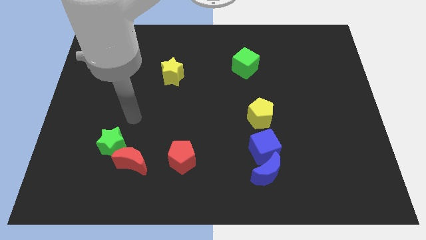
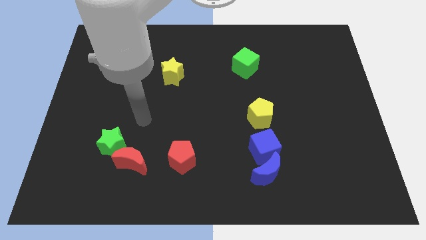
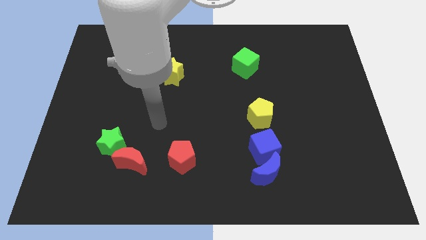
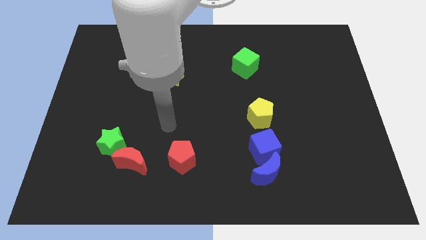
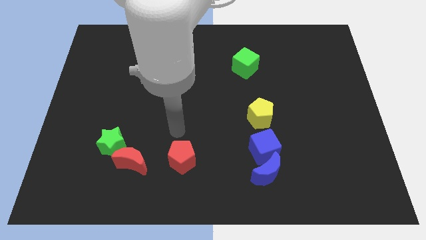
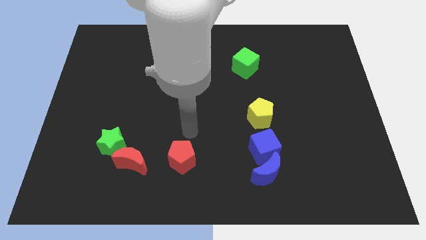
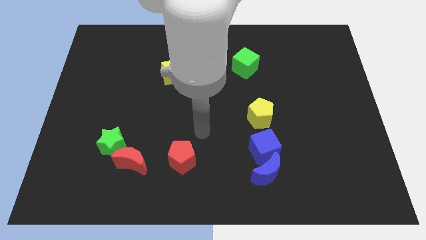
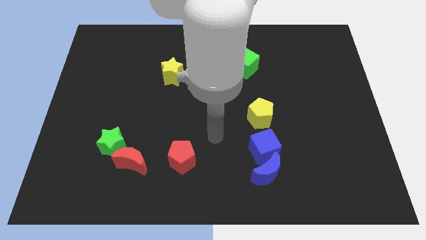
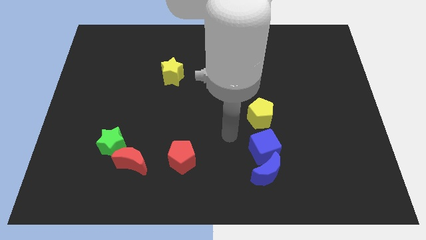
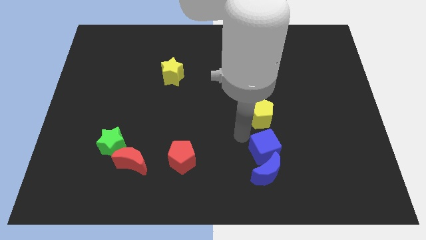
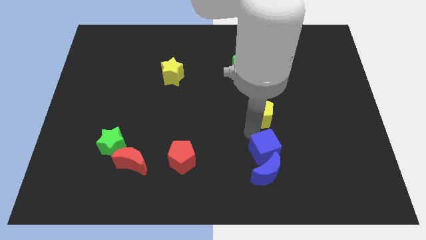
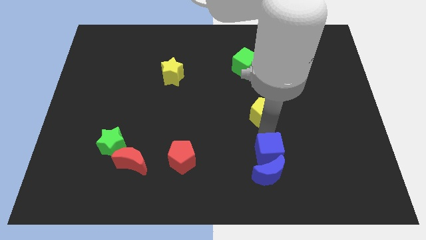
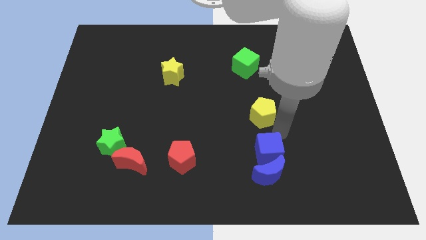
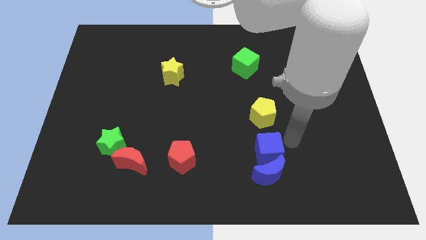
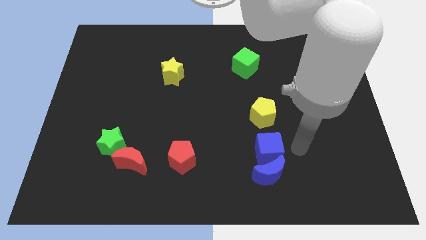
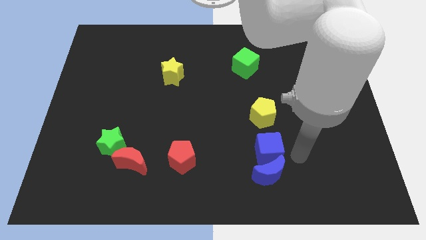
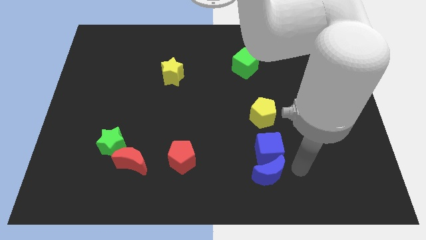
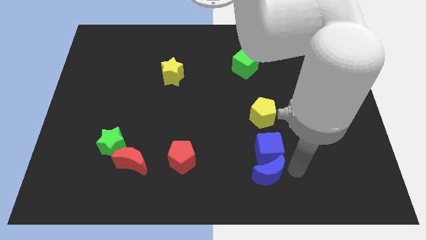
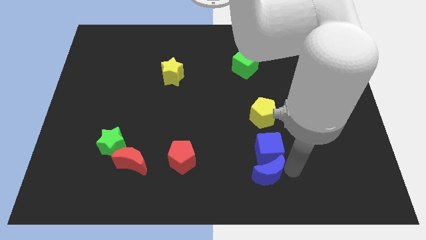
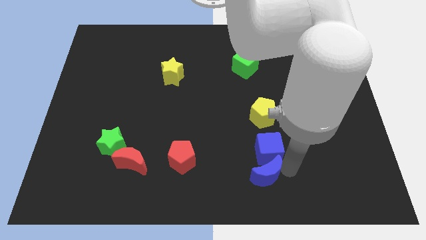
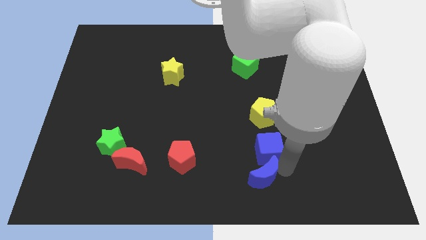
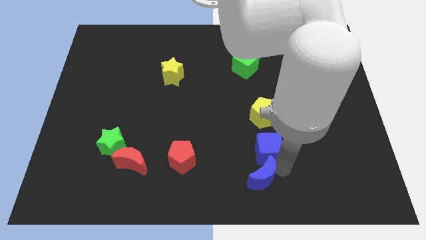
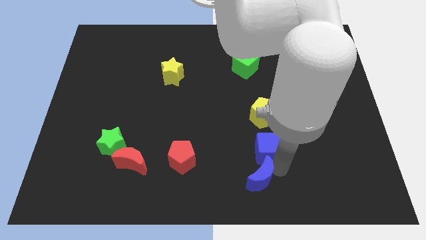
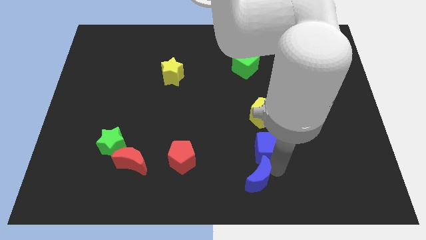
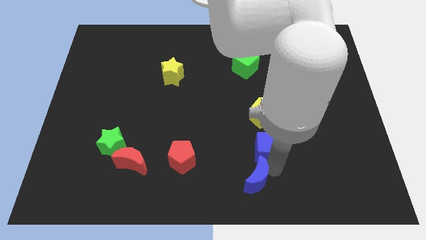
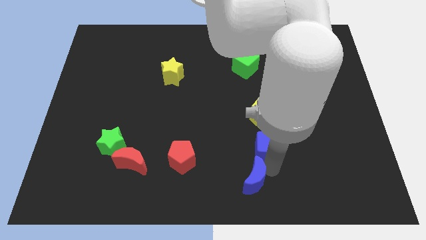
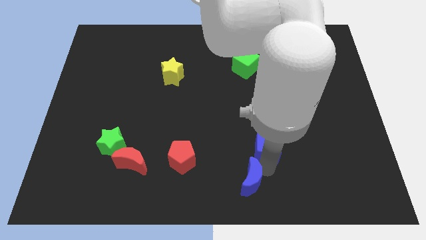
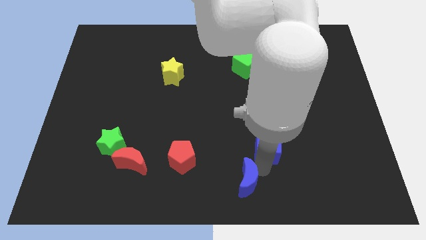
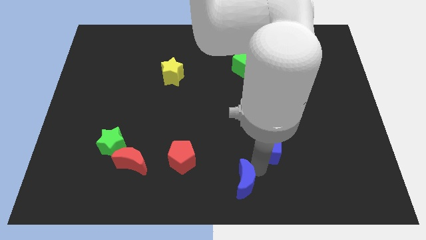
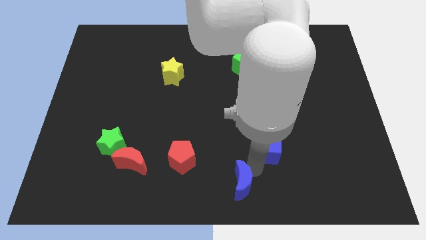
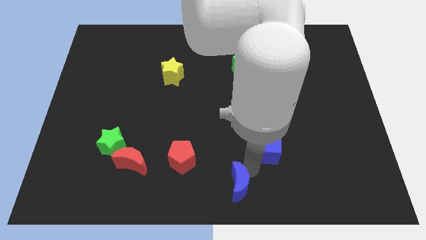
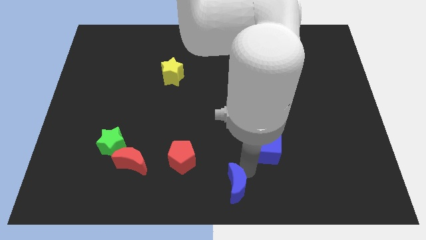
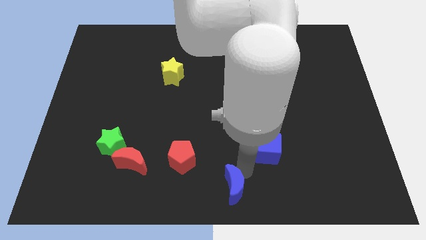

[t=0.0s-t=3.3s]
slide the blue moon somewhat left

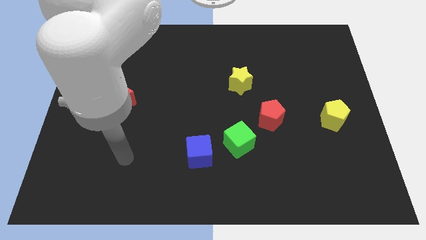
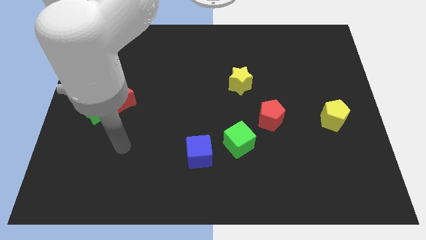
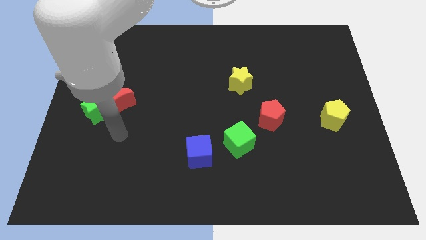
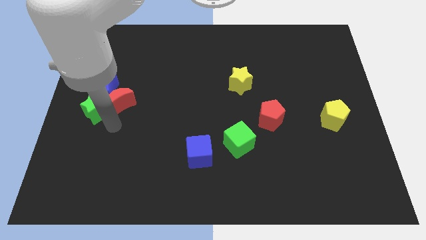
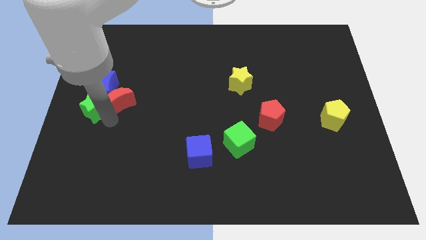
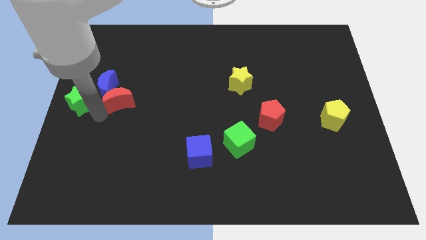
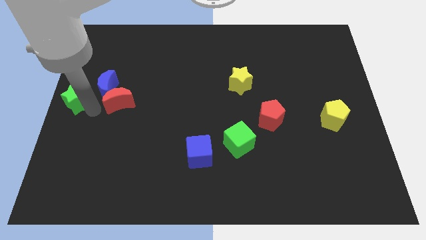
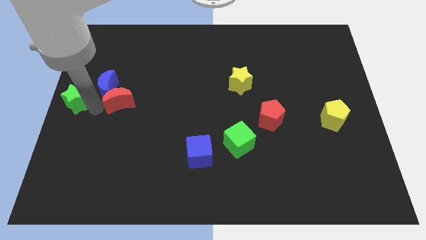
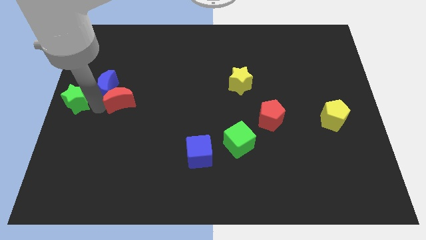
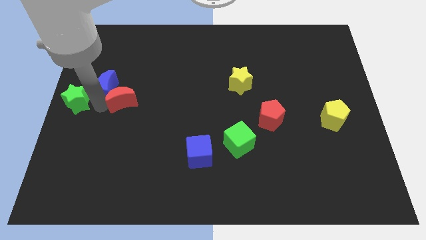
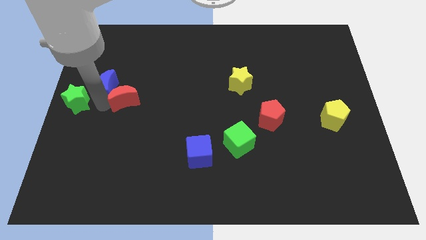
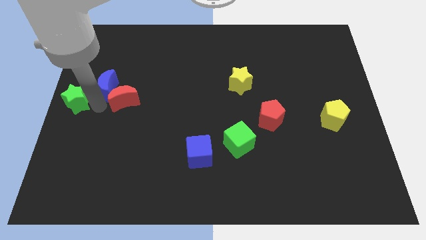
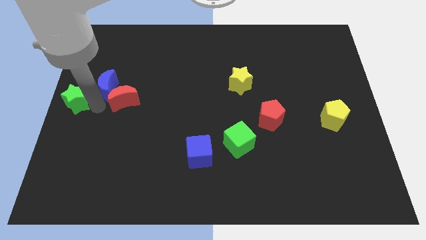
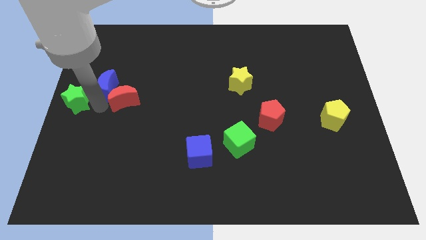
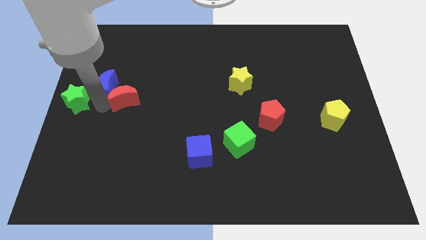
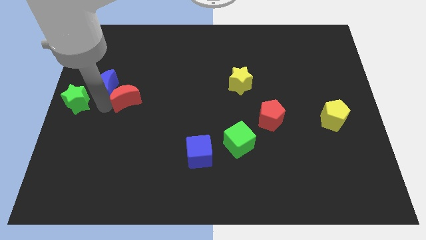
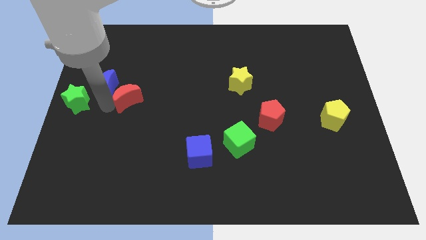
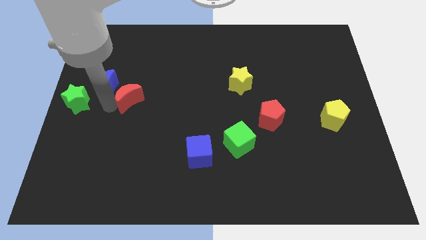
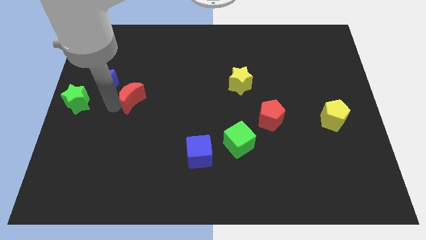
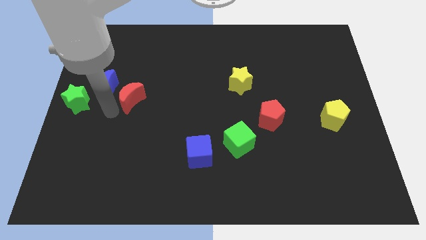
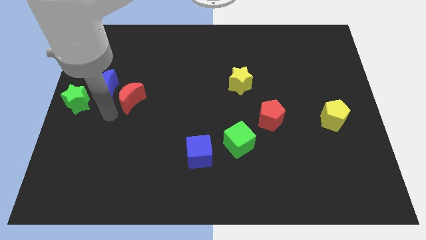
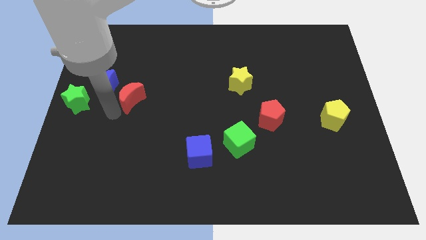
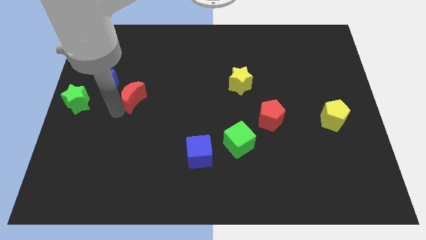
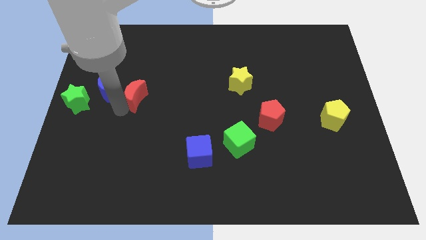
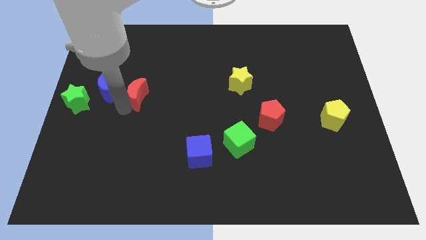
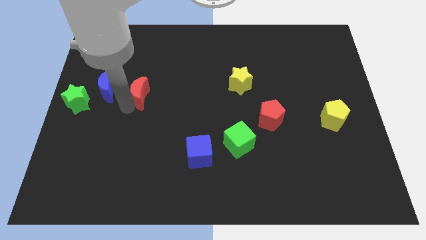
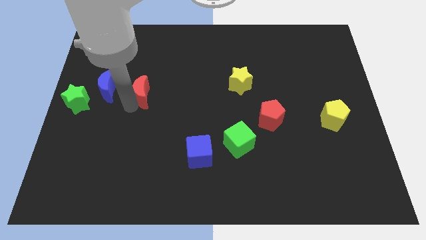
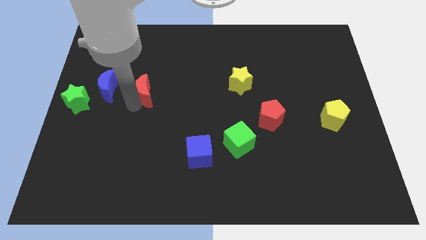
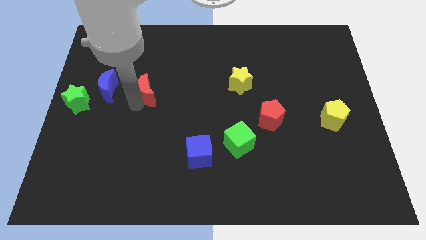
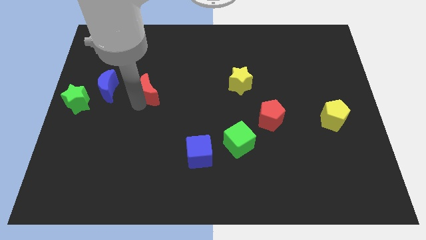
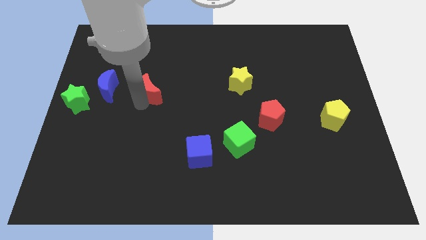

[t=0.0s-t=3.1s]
slide the red moon somewhat diagonally up and right

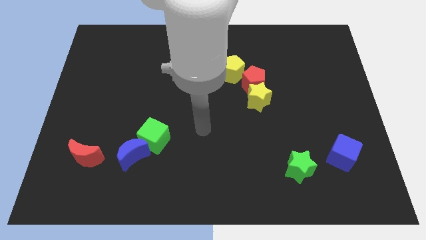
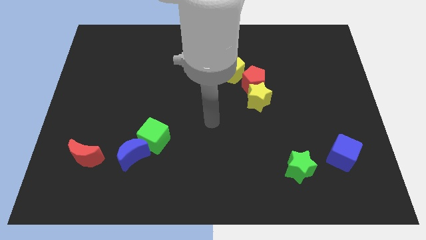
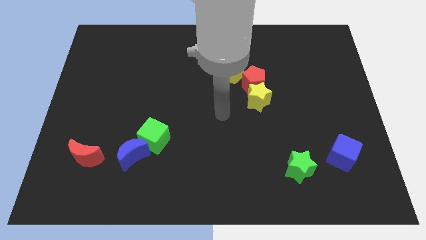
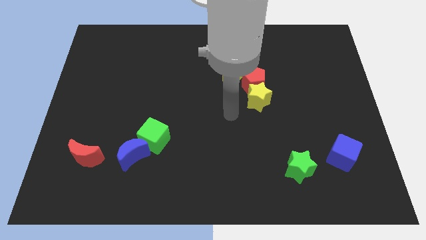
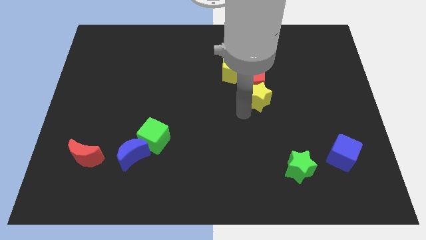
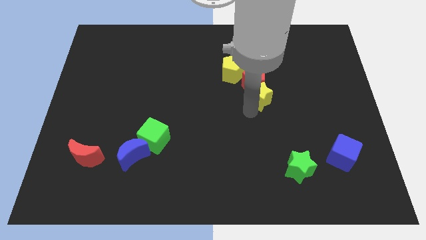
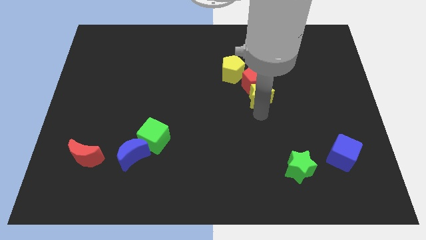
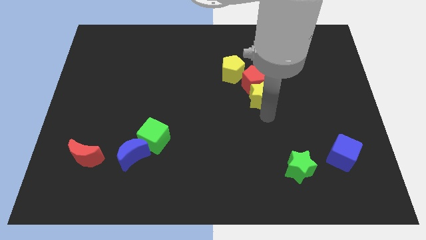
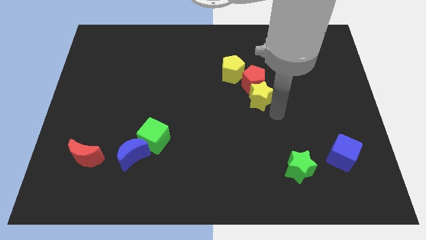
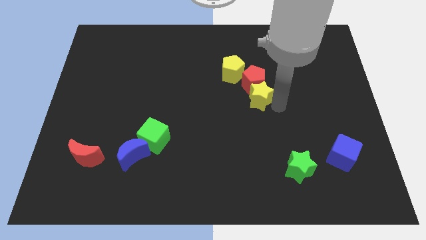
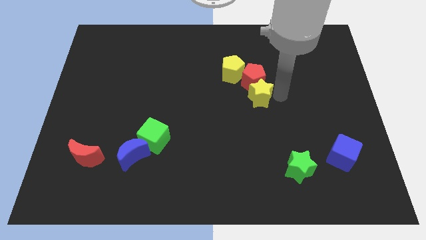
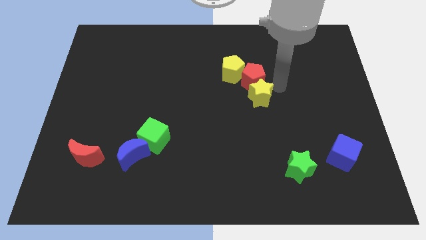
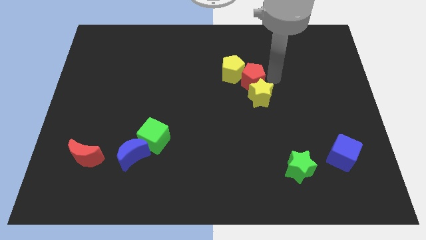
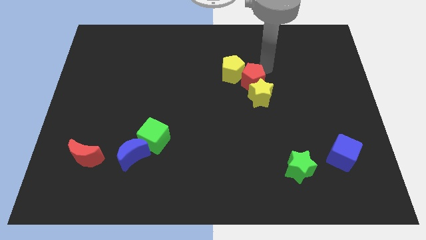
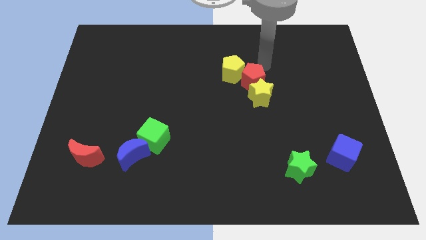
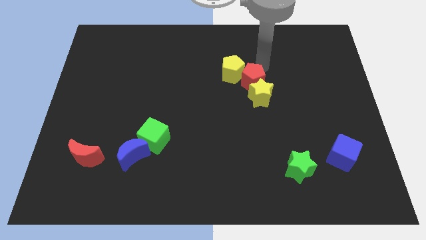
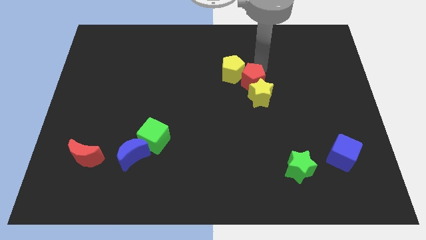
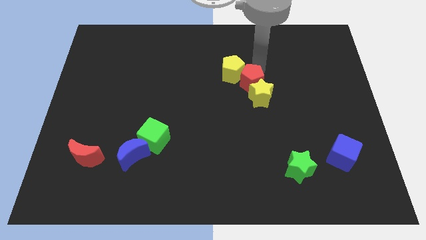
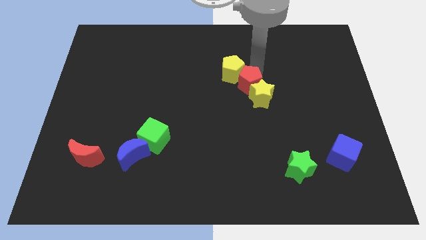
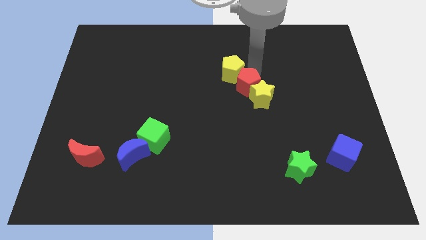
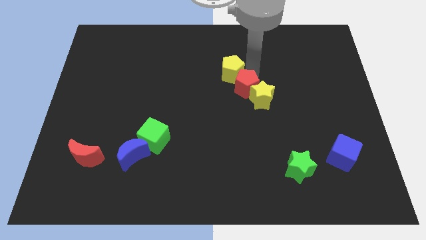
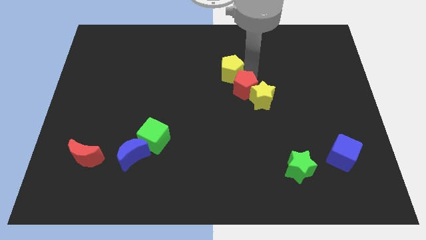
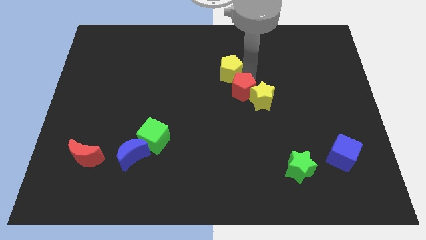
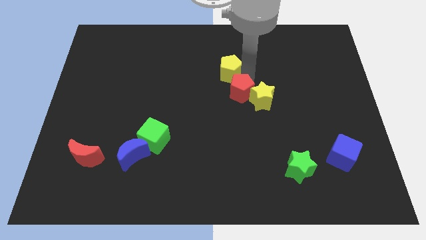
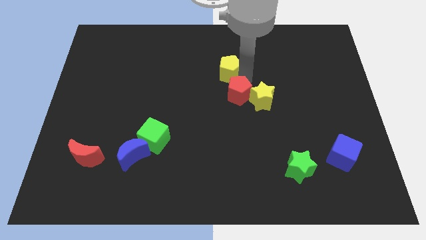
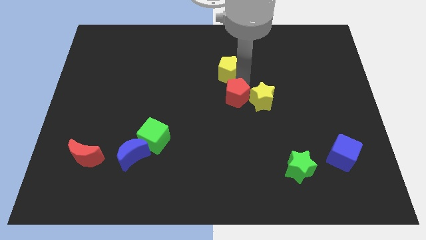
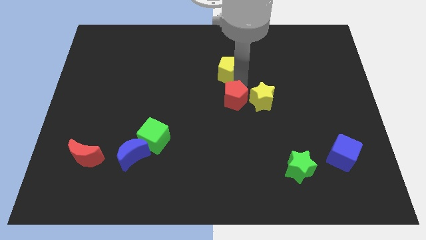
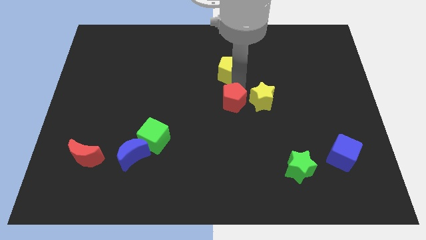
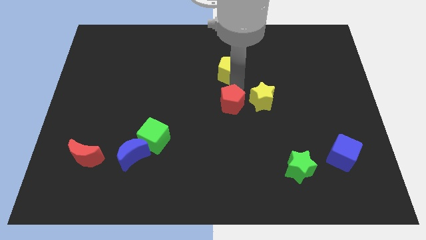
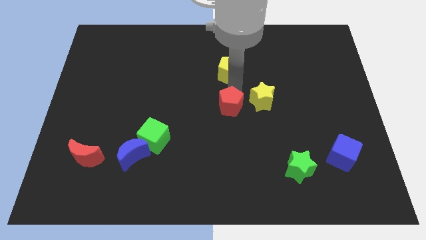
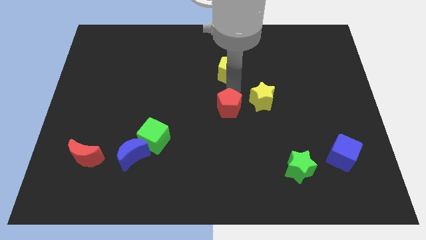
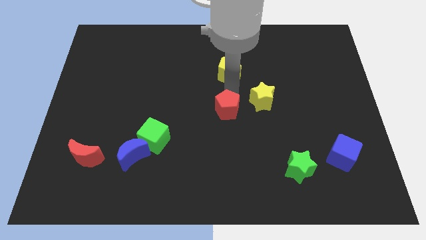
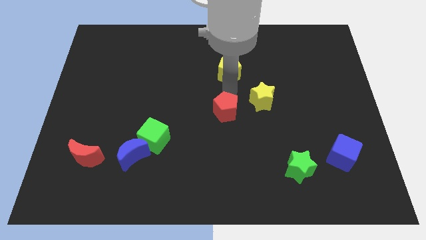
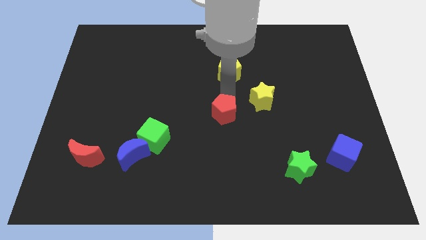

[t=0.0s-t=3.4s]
push the red pentagon a little bit downwards
